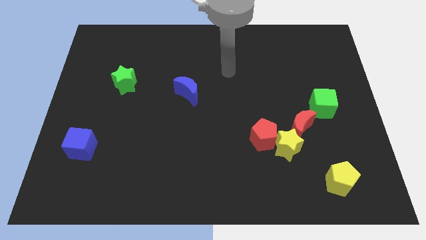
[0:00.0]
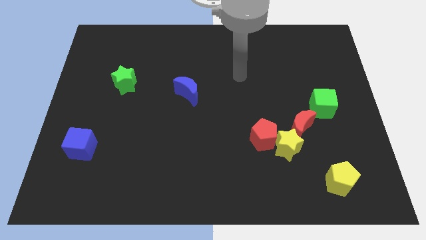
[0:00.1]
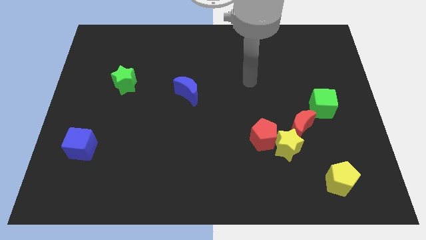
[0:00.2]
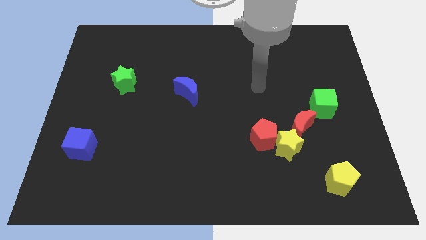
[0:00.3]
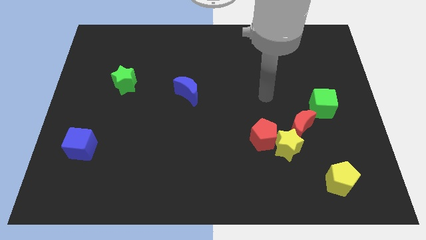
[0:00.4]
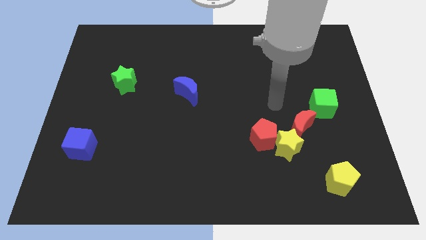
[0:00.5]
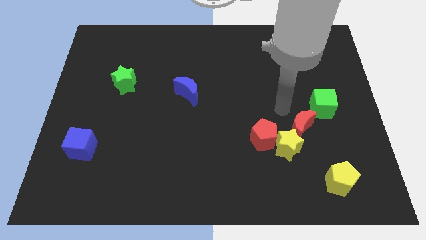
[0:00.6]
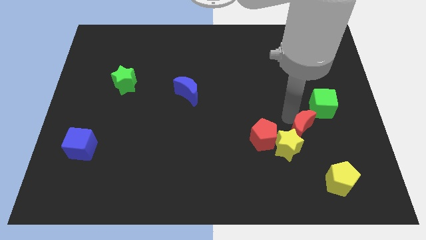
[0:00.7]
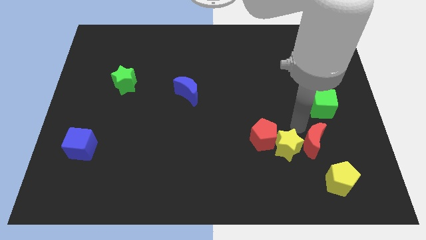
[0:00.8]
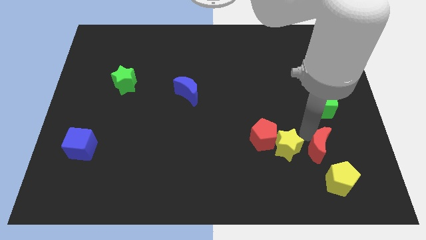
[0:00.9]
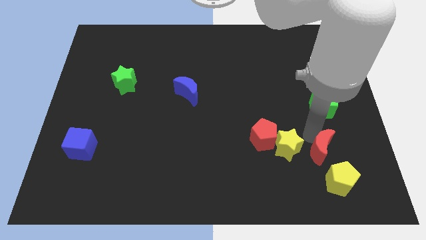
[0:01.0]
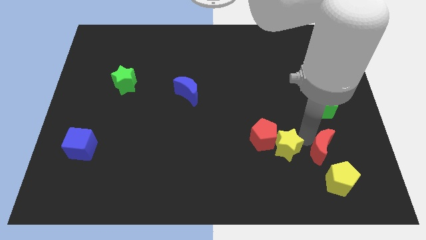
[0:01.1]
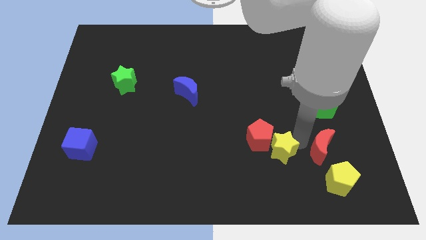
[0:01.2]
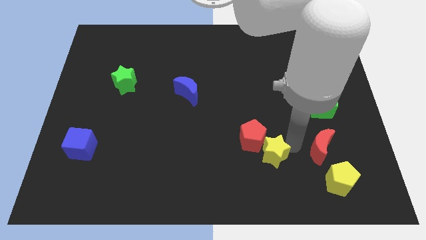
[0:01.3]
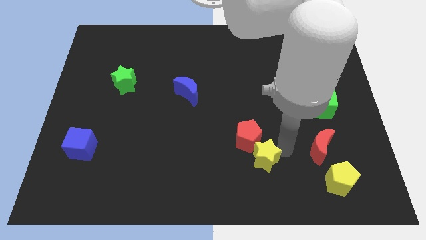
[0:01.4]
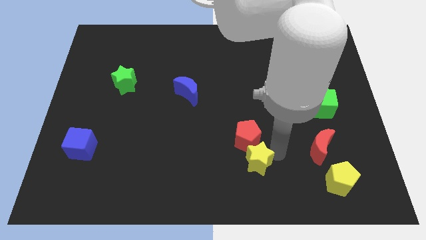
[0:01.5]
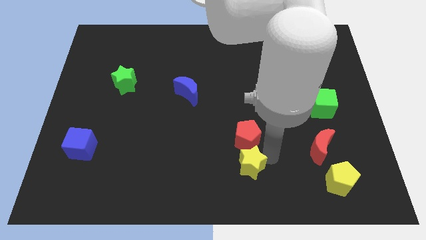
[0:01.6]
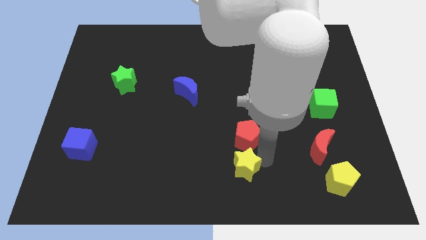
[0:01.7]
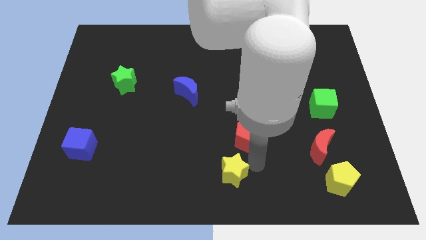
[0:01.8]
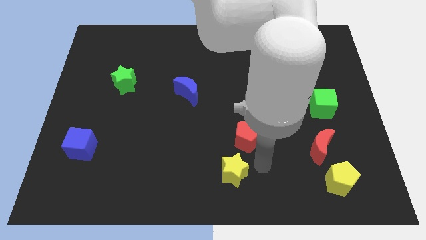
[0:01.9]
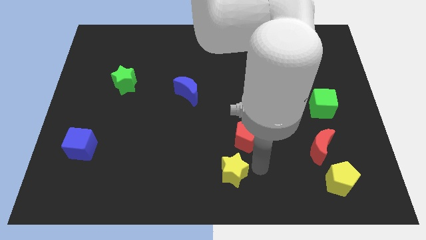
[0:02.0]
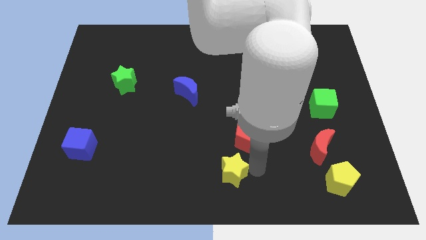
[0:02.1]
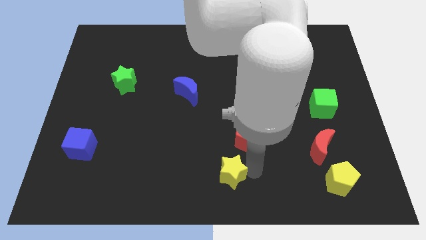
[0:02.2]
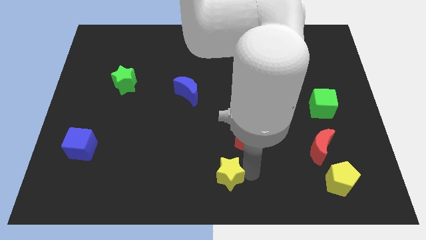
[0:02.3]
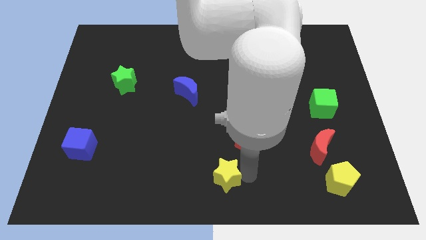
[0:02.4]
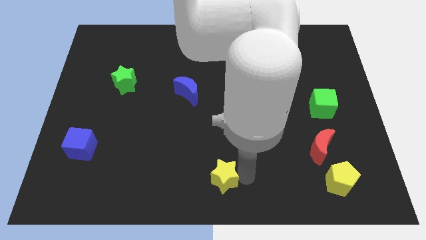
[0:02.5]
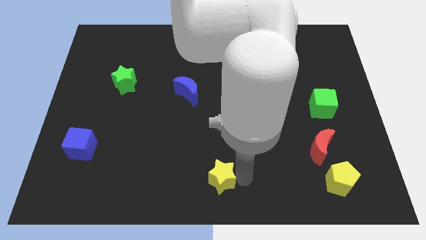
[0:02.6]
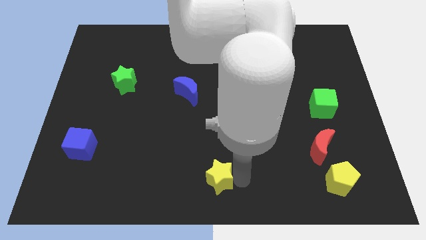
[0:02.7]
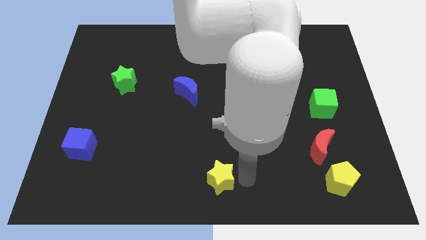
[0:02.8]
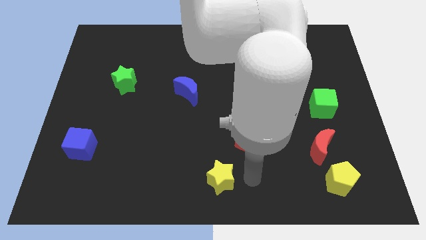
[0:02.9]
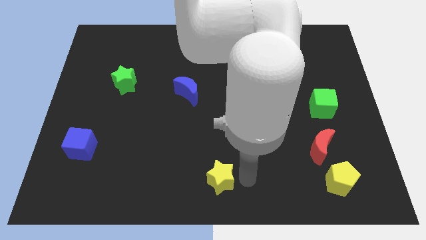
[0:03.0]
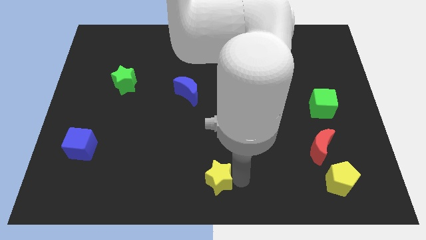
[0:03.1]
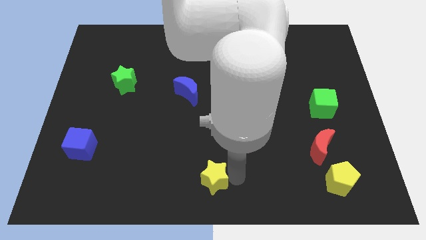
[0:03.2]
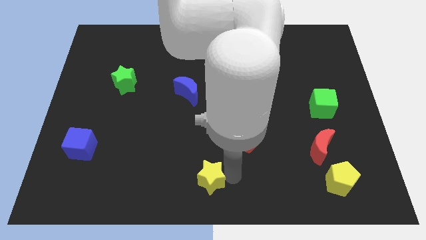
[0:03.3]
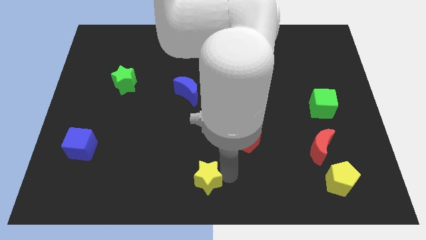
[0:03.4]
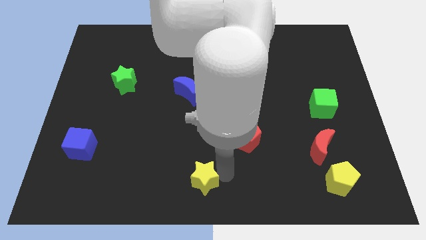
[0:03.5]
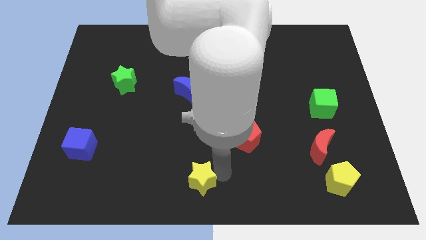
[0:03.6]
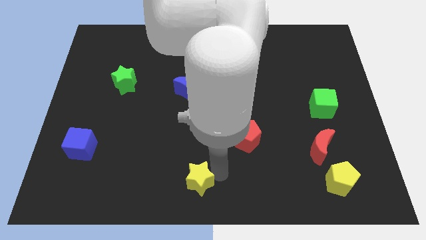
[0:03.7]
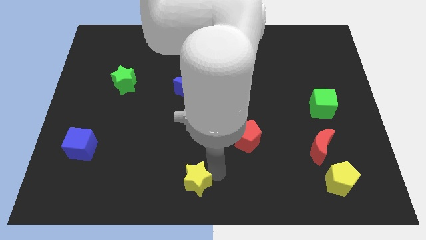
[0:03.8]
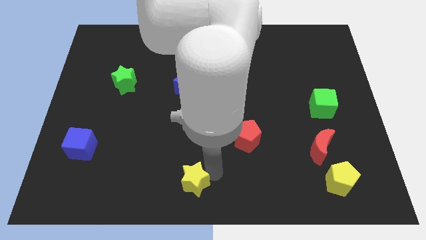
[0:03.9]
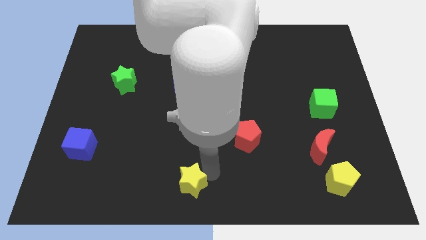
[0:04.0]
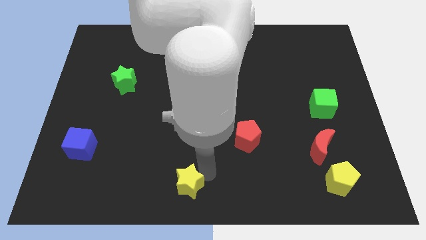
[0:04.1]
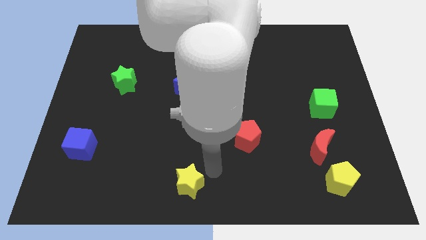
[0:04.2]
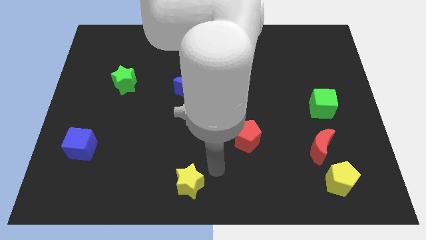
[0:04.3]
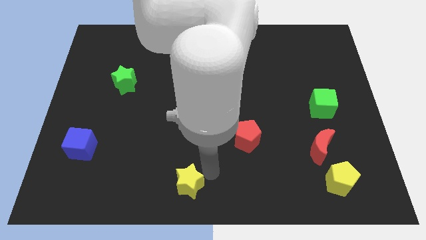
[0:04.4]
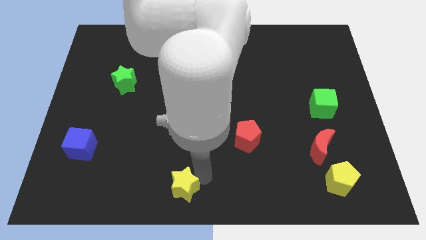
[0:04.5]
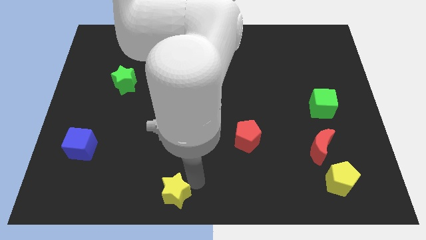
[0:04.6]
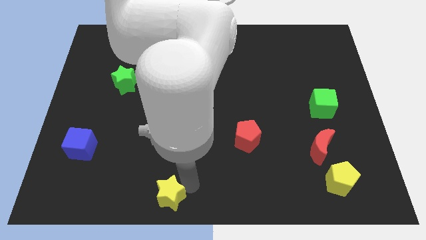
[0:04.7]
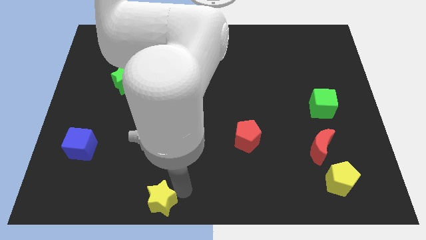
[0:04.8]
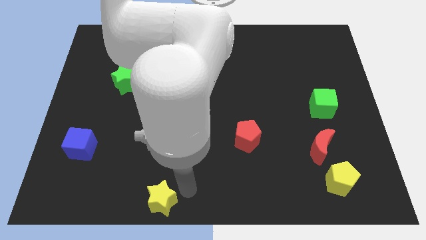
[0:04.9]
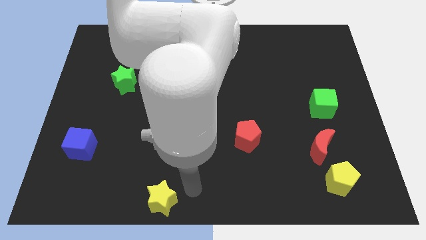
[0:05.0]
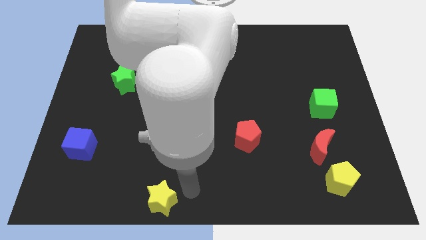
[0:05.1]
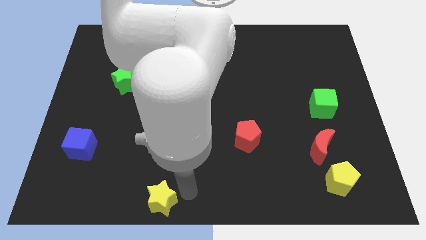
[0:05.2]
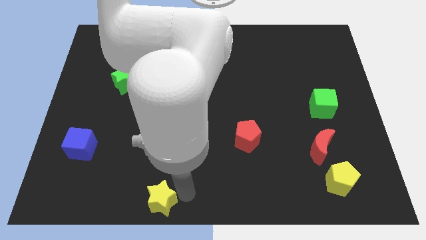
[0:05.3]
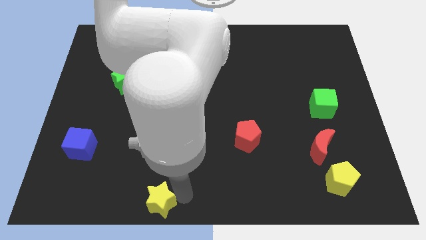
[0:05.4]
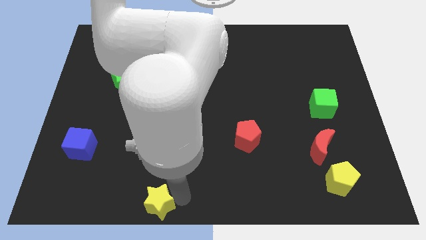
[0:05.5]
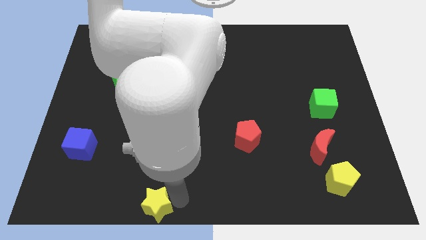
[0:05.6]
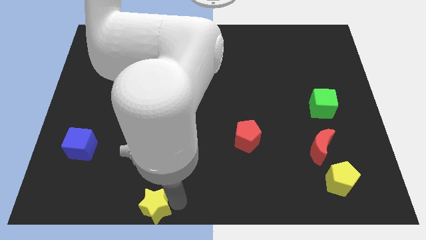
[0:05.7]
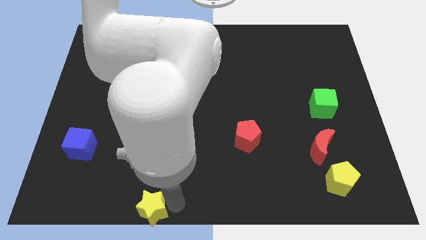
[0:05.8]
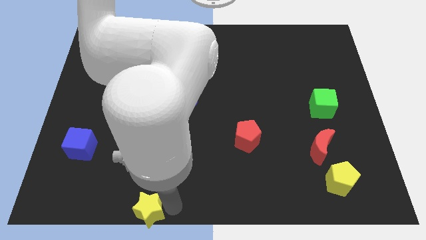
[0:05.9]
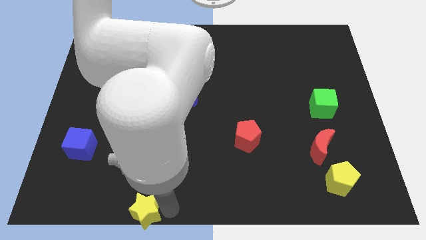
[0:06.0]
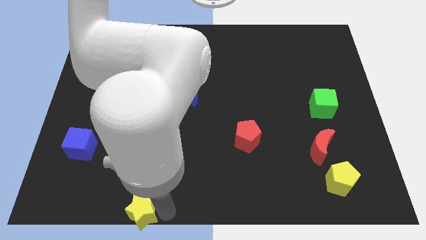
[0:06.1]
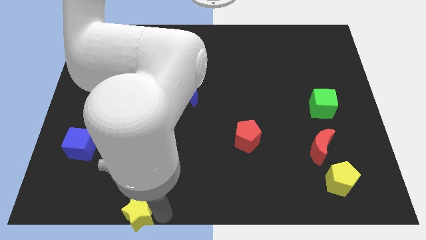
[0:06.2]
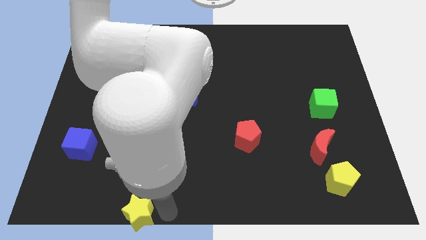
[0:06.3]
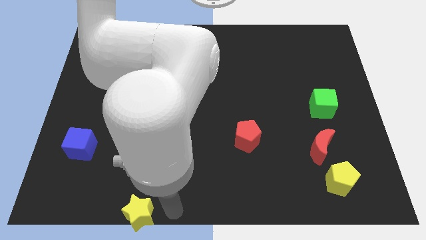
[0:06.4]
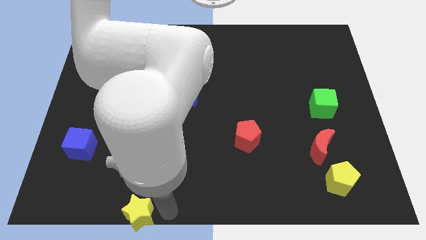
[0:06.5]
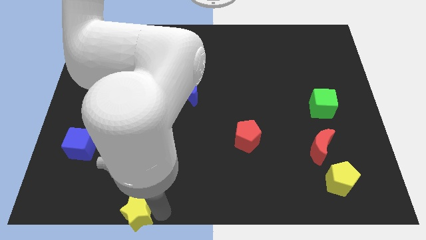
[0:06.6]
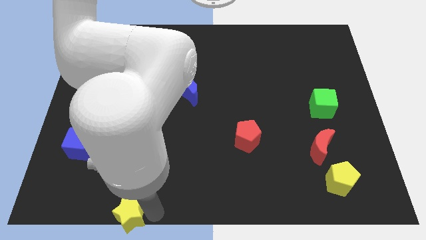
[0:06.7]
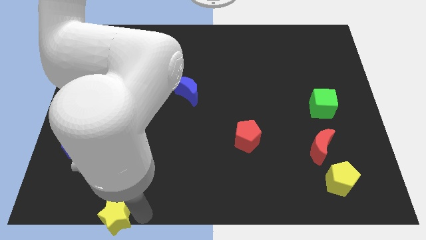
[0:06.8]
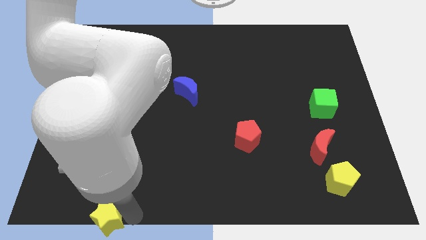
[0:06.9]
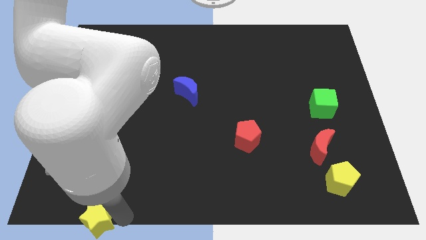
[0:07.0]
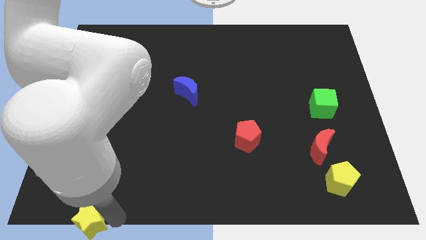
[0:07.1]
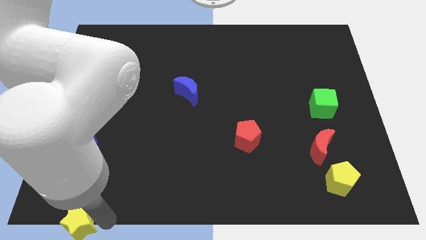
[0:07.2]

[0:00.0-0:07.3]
push the yellow star to the lower left corner
